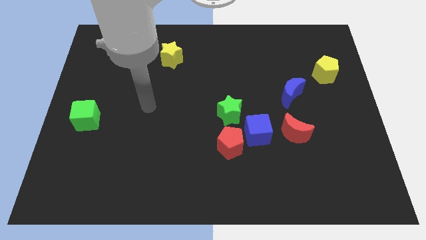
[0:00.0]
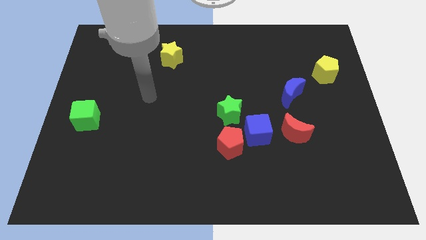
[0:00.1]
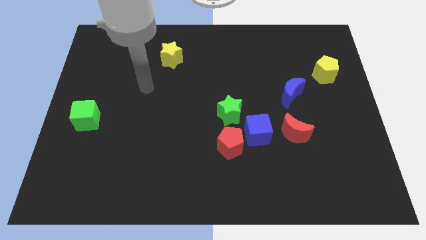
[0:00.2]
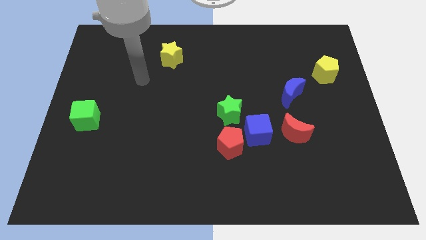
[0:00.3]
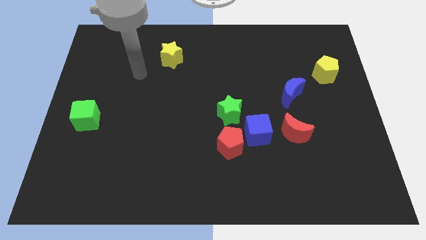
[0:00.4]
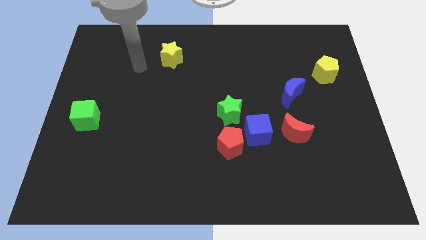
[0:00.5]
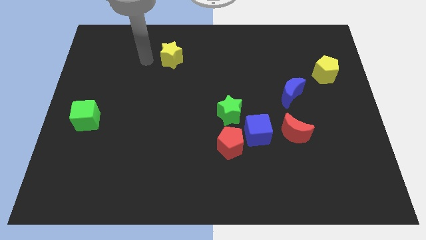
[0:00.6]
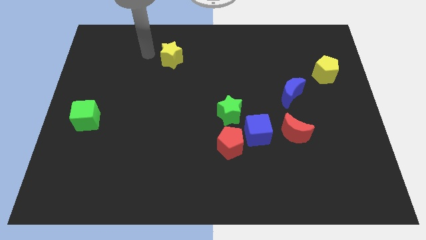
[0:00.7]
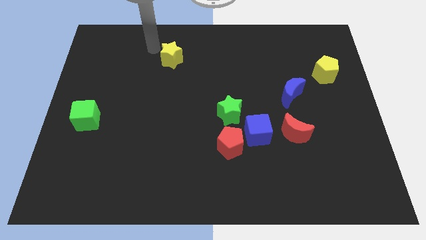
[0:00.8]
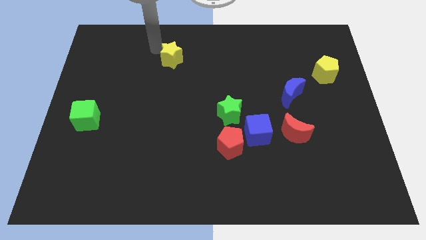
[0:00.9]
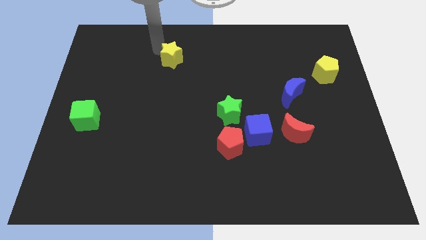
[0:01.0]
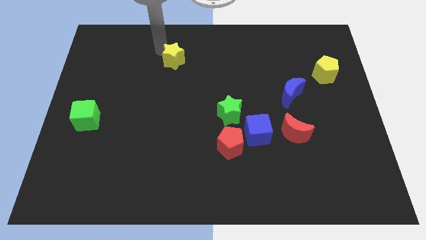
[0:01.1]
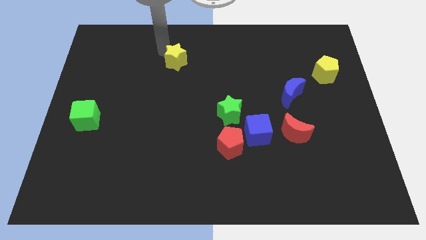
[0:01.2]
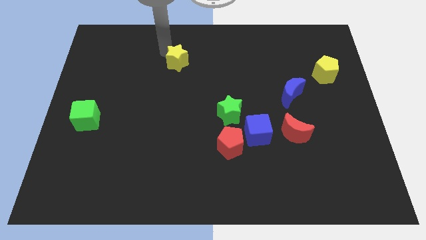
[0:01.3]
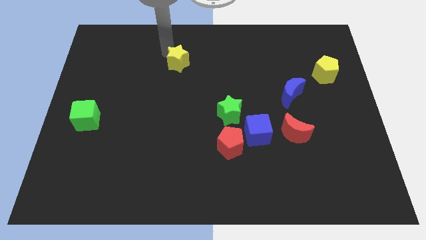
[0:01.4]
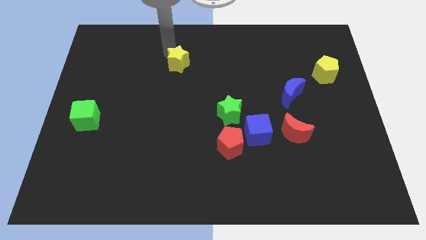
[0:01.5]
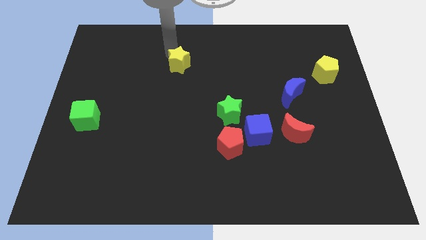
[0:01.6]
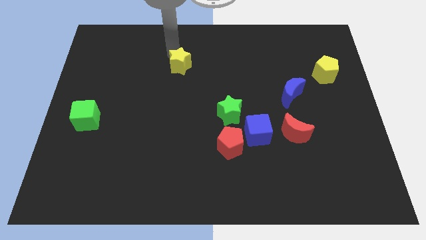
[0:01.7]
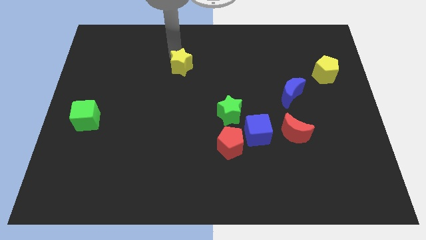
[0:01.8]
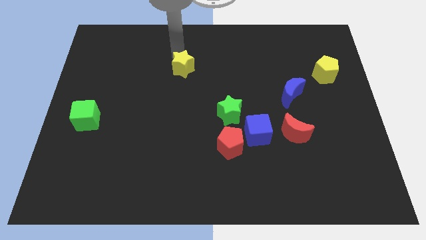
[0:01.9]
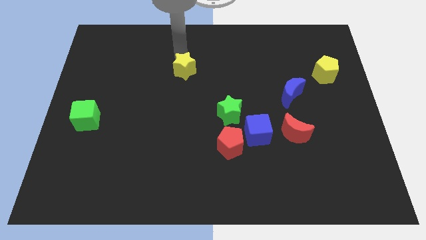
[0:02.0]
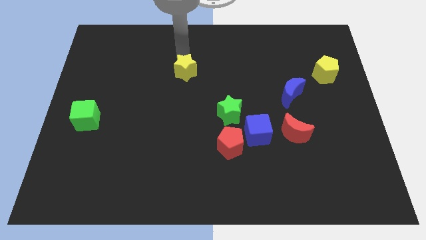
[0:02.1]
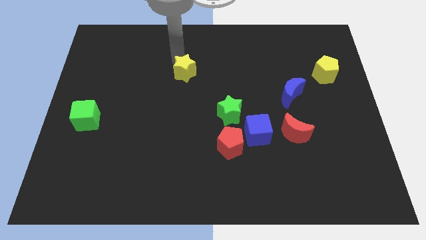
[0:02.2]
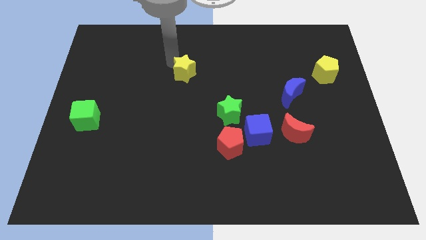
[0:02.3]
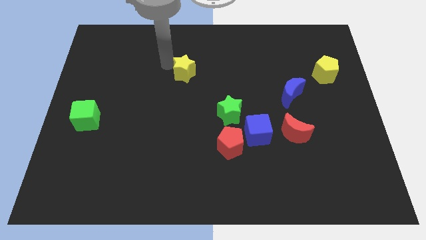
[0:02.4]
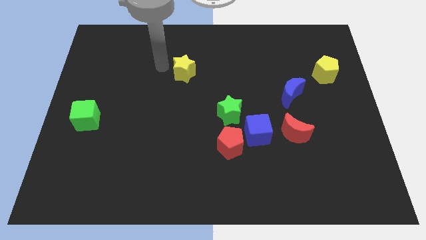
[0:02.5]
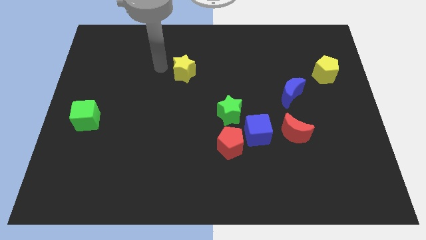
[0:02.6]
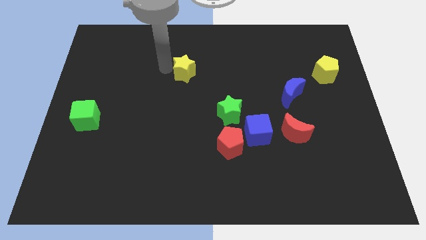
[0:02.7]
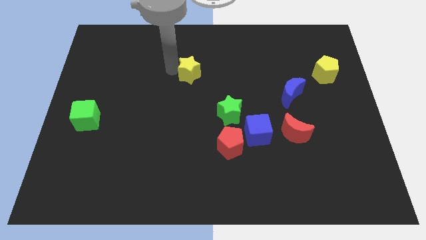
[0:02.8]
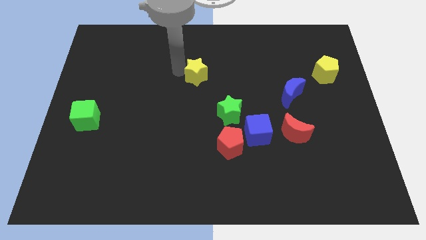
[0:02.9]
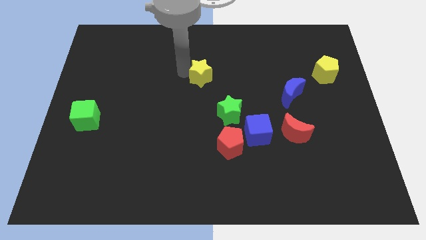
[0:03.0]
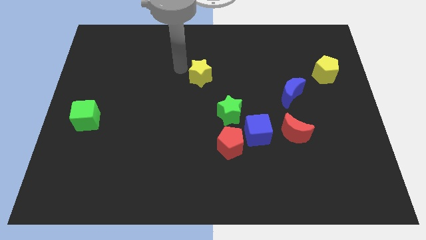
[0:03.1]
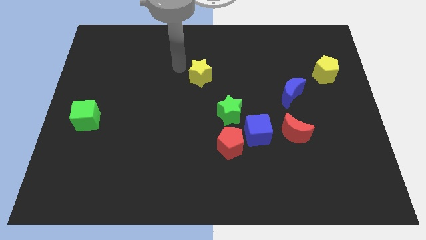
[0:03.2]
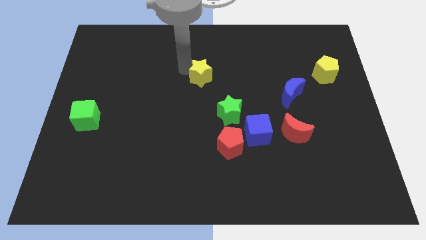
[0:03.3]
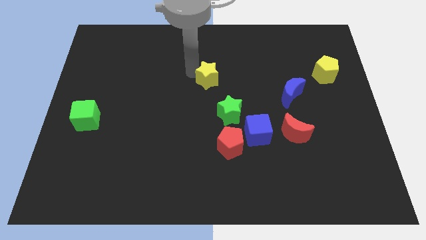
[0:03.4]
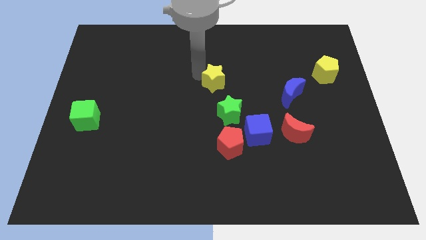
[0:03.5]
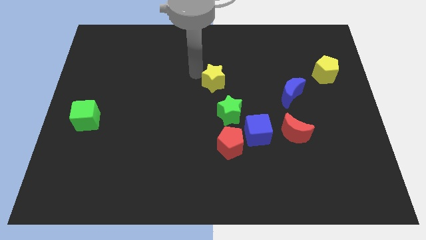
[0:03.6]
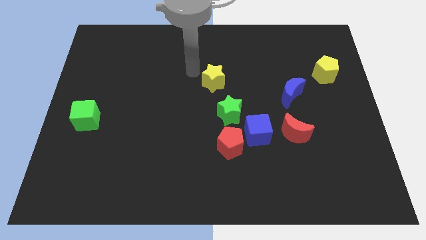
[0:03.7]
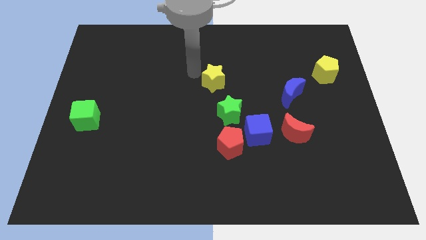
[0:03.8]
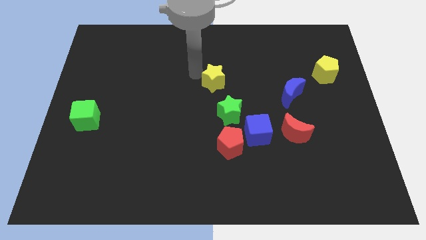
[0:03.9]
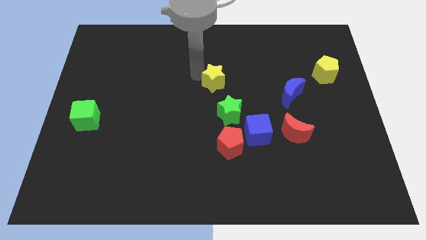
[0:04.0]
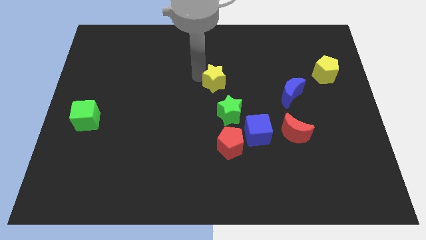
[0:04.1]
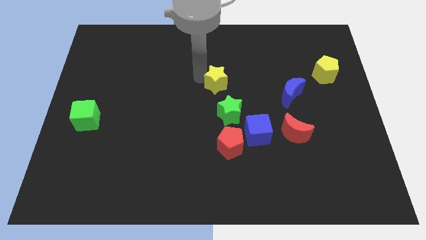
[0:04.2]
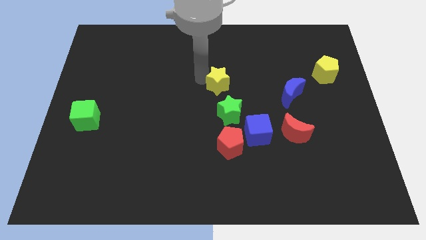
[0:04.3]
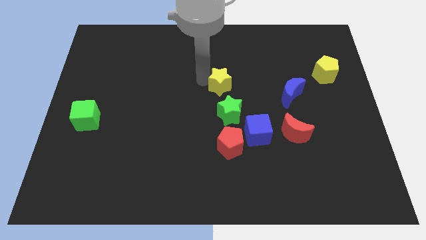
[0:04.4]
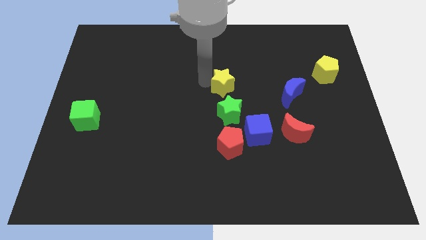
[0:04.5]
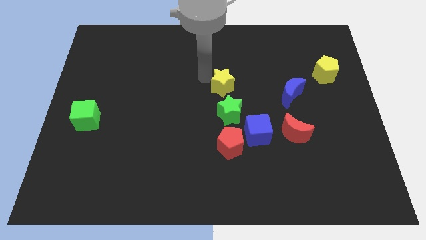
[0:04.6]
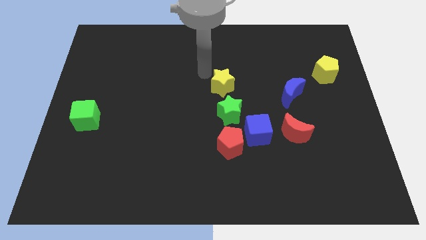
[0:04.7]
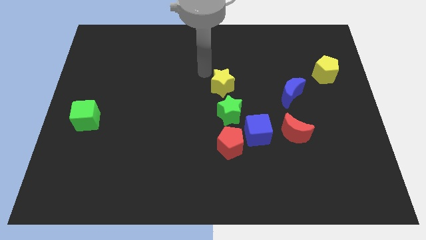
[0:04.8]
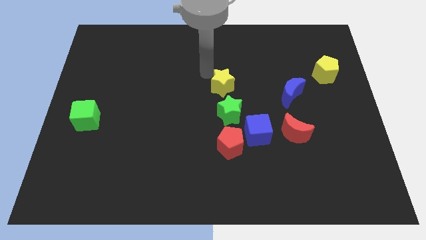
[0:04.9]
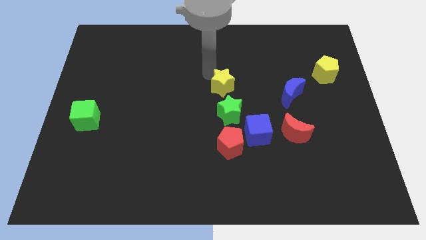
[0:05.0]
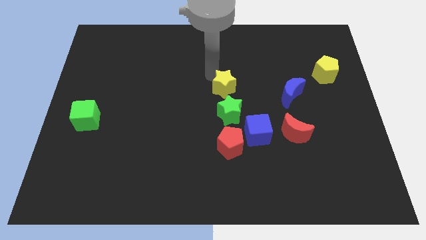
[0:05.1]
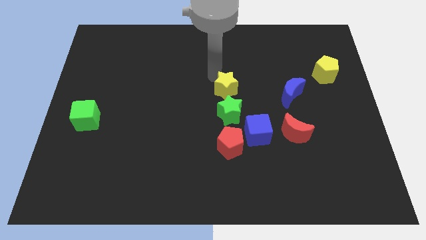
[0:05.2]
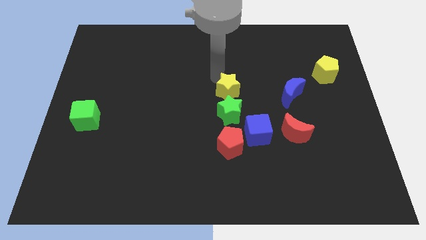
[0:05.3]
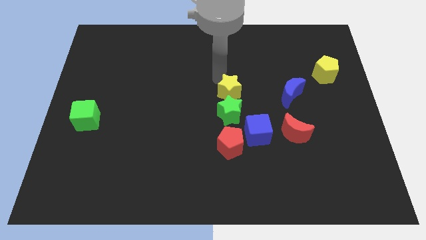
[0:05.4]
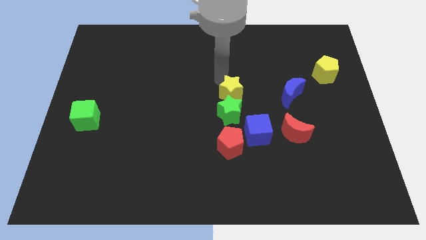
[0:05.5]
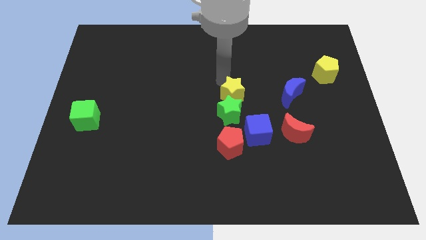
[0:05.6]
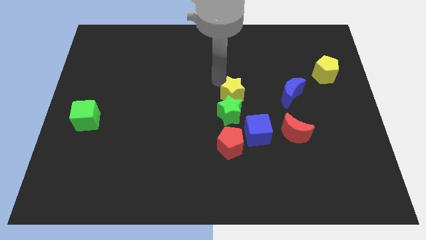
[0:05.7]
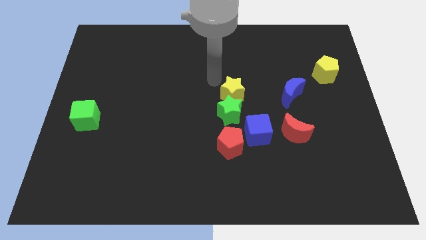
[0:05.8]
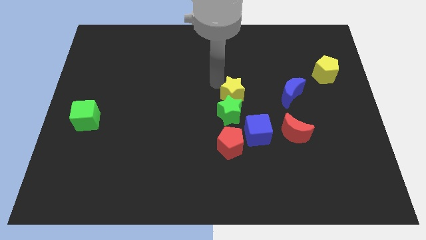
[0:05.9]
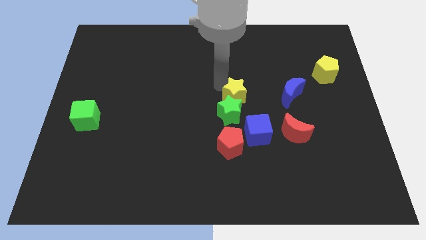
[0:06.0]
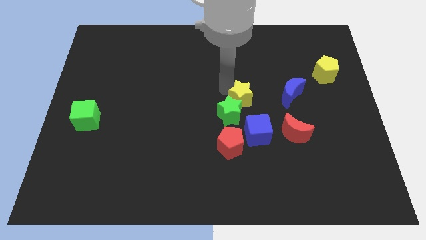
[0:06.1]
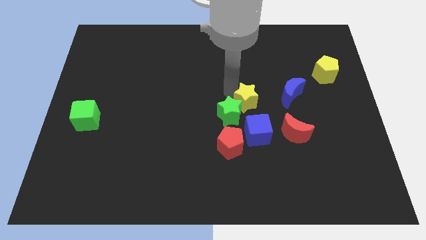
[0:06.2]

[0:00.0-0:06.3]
push the yellow star to the right of the green star

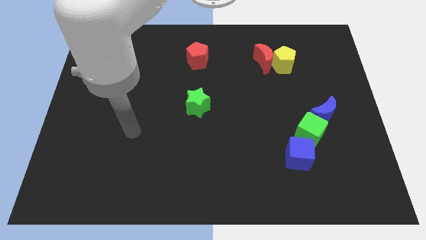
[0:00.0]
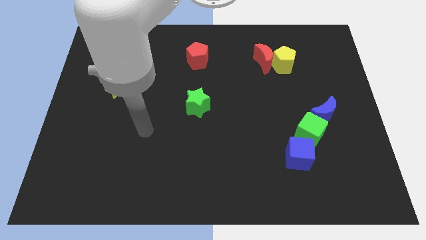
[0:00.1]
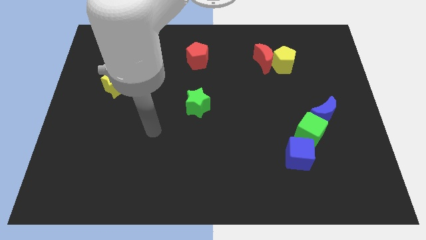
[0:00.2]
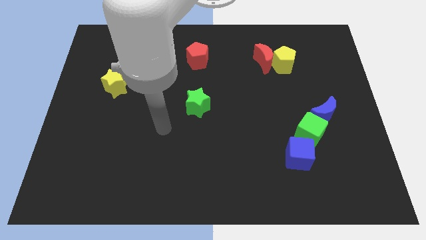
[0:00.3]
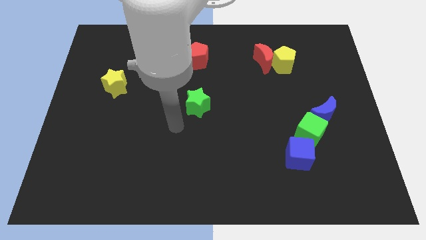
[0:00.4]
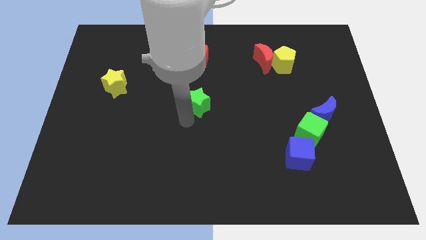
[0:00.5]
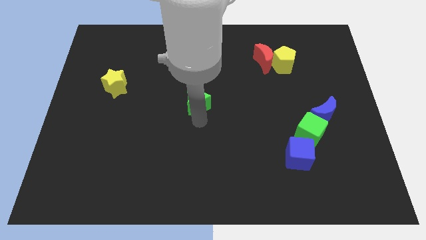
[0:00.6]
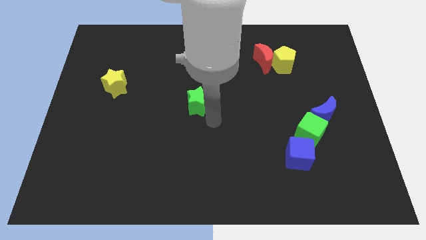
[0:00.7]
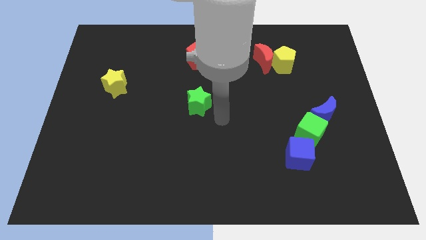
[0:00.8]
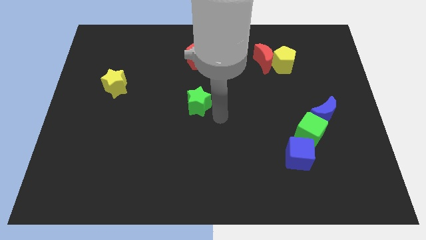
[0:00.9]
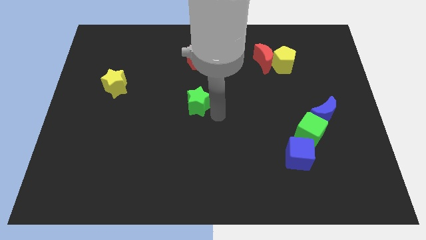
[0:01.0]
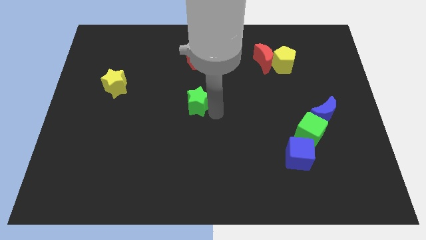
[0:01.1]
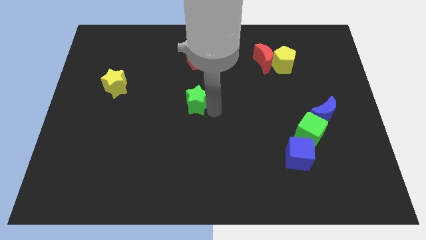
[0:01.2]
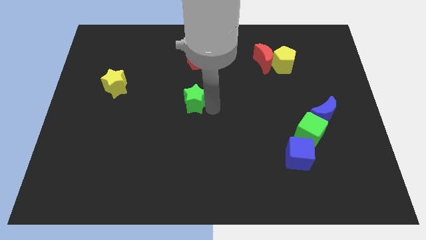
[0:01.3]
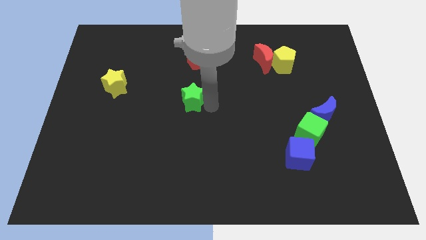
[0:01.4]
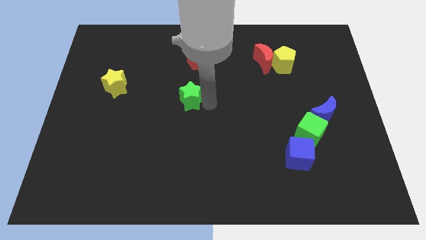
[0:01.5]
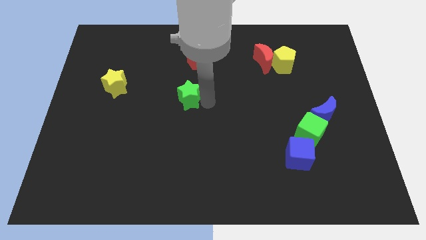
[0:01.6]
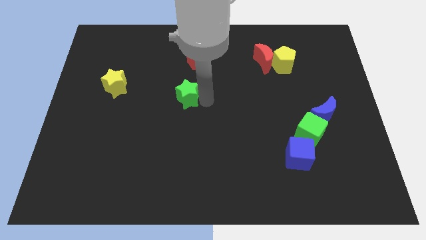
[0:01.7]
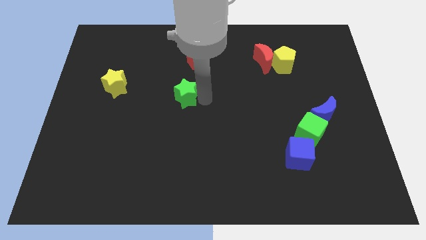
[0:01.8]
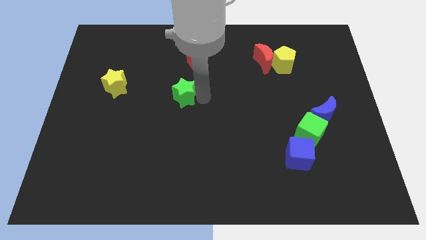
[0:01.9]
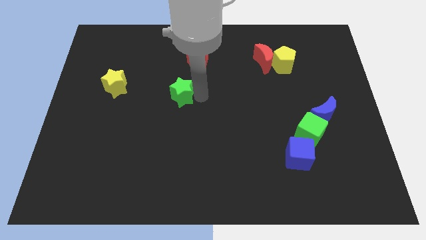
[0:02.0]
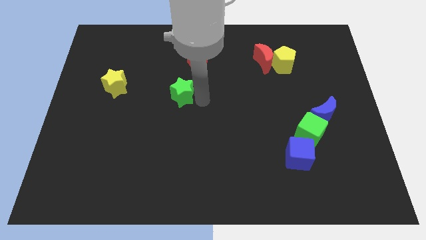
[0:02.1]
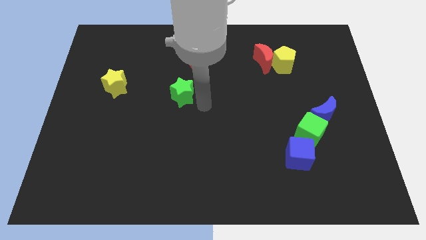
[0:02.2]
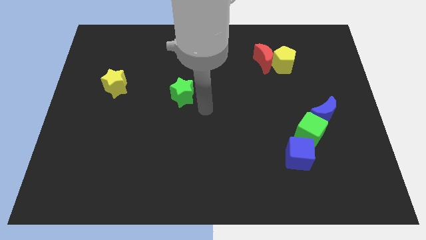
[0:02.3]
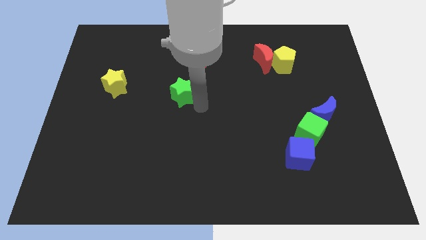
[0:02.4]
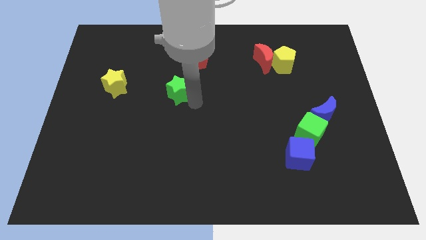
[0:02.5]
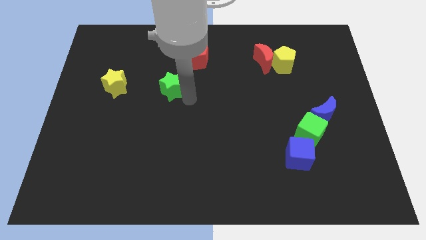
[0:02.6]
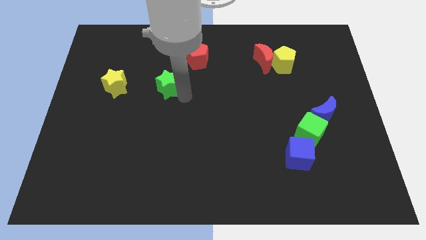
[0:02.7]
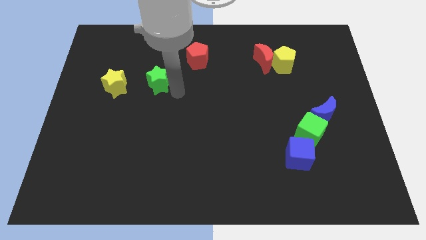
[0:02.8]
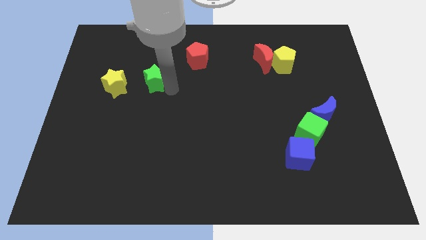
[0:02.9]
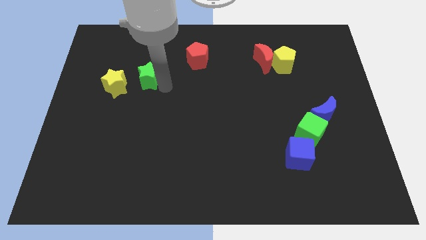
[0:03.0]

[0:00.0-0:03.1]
slide the green star to the top right side of the yellow star
